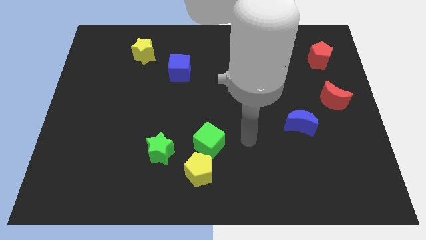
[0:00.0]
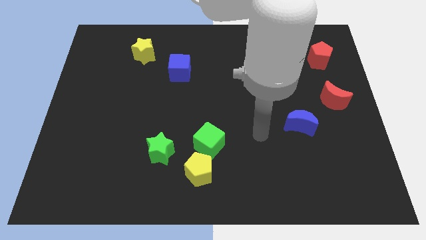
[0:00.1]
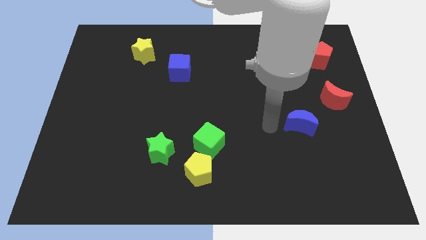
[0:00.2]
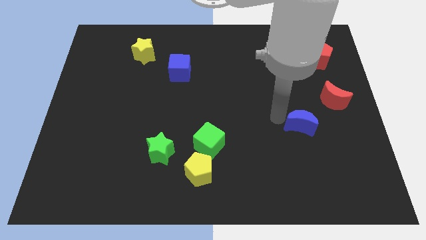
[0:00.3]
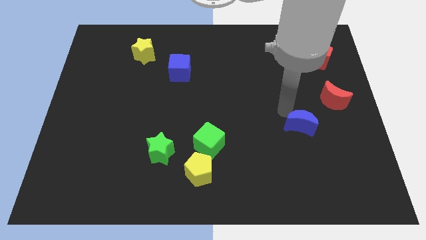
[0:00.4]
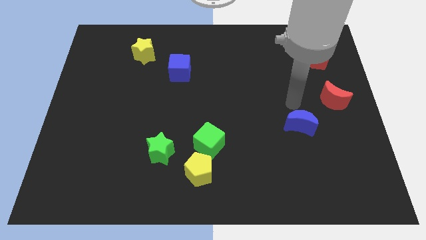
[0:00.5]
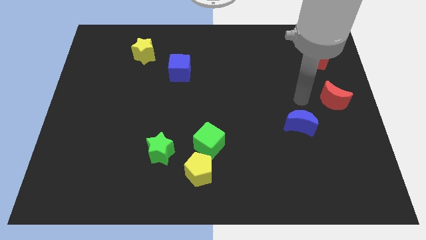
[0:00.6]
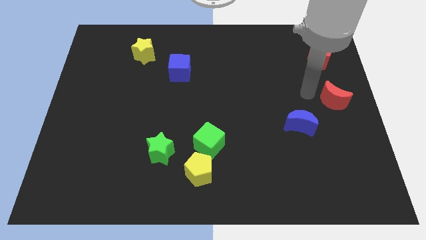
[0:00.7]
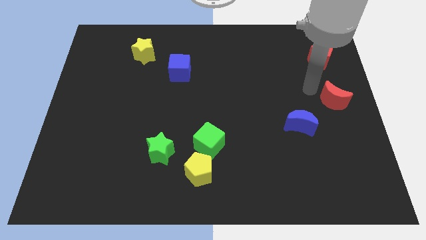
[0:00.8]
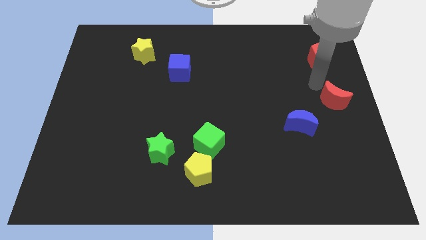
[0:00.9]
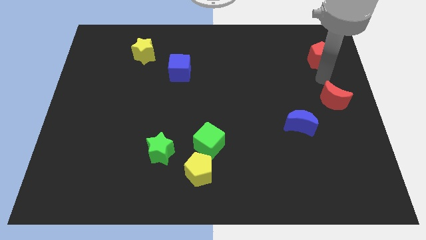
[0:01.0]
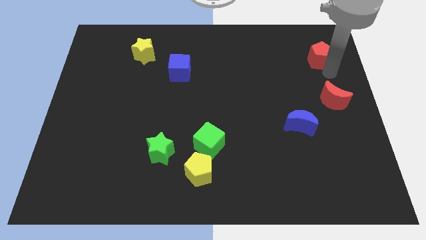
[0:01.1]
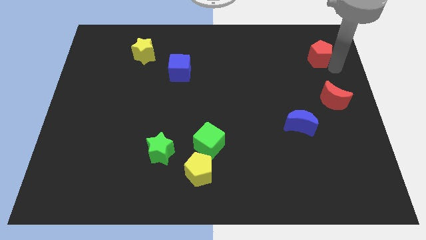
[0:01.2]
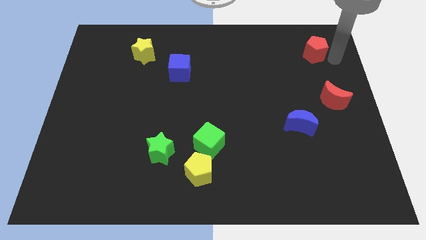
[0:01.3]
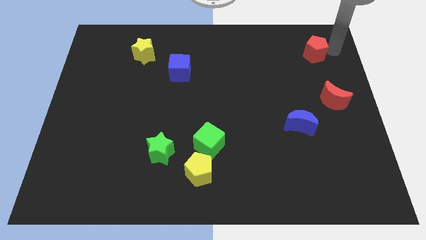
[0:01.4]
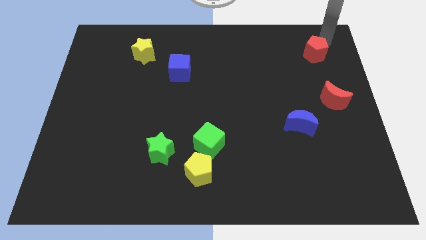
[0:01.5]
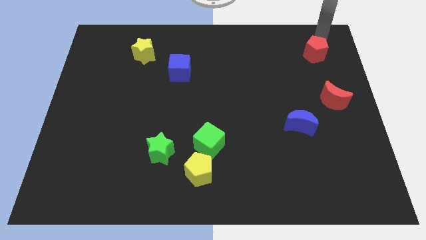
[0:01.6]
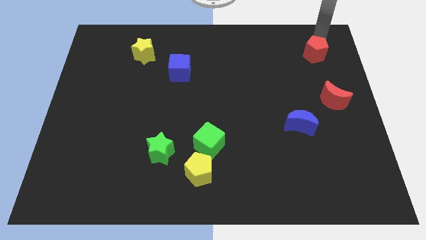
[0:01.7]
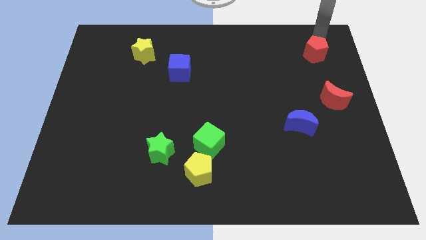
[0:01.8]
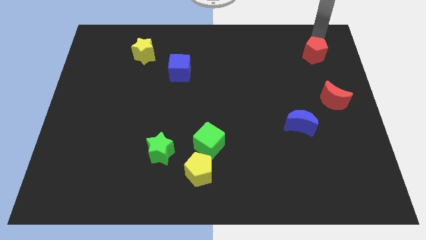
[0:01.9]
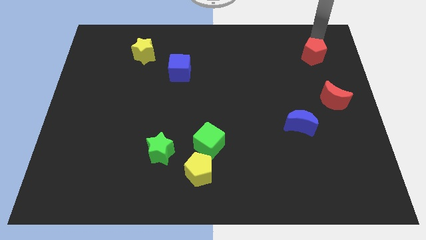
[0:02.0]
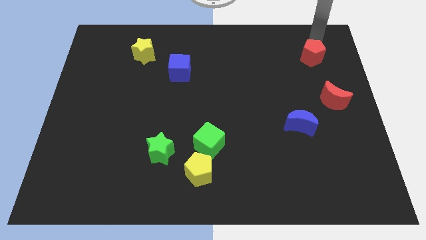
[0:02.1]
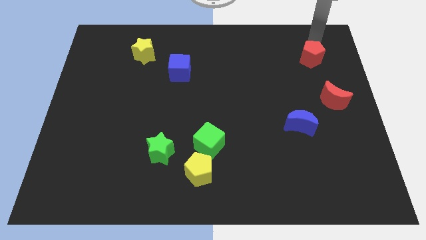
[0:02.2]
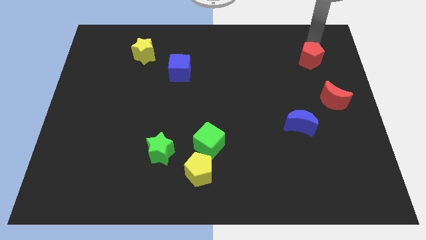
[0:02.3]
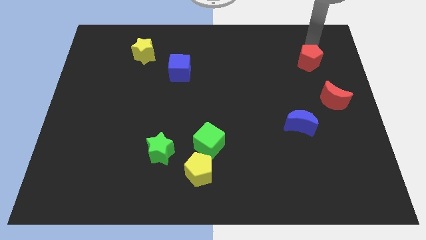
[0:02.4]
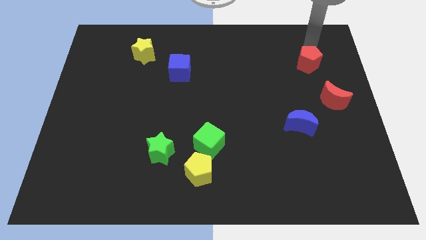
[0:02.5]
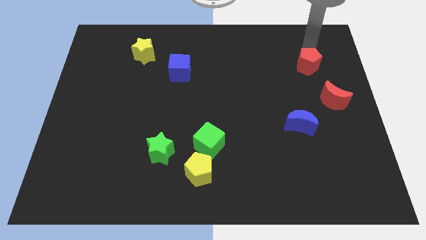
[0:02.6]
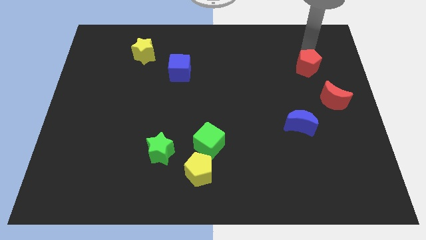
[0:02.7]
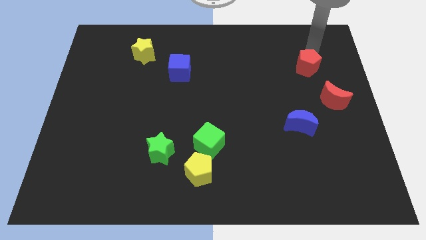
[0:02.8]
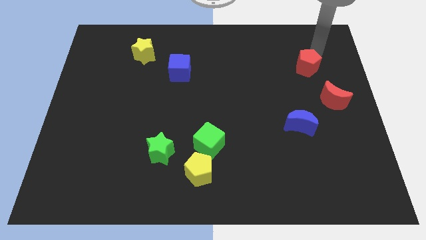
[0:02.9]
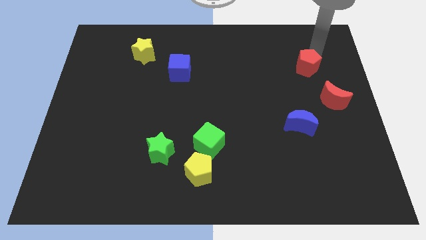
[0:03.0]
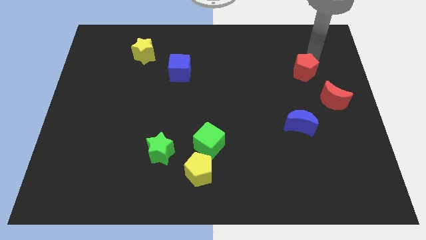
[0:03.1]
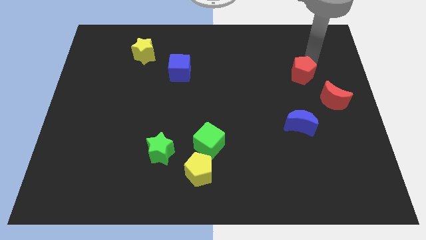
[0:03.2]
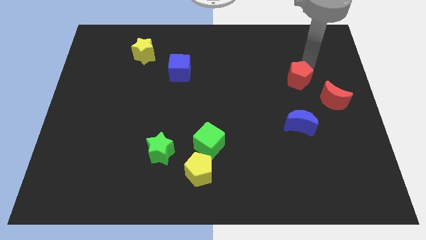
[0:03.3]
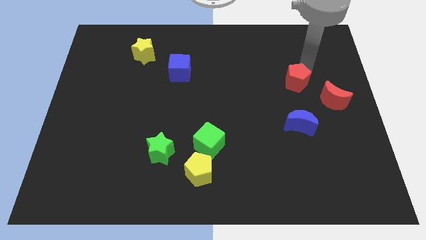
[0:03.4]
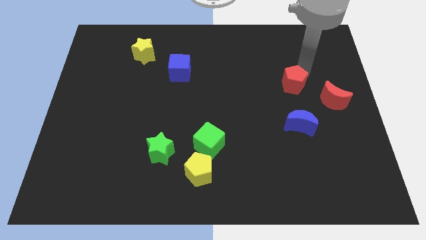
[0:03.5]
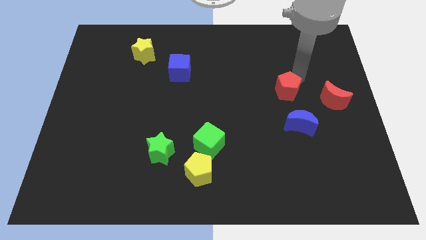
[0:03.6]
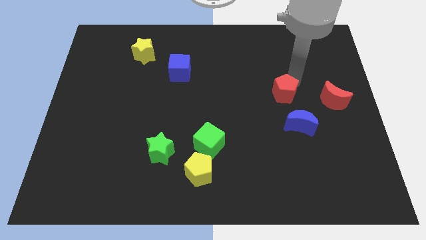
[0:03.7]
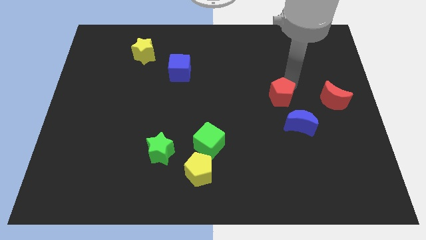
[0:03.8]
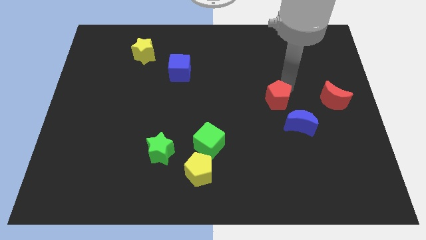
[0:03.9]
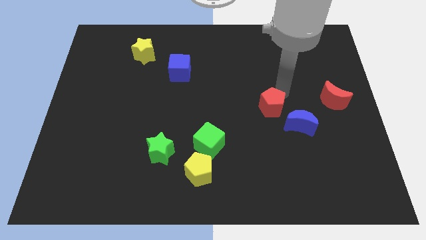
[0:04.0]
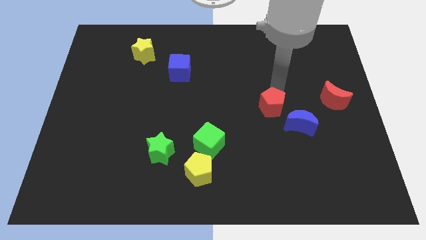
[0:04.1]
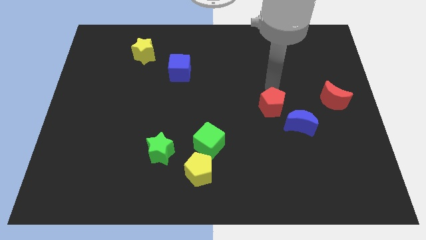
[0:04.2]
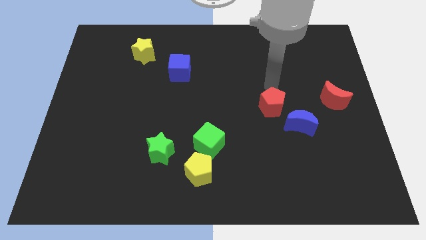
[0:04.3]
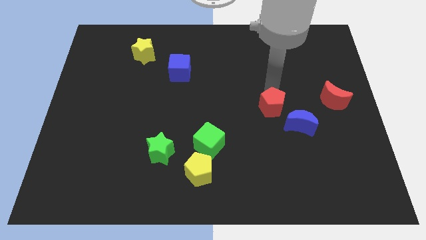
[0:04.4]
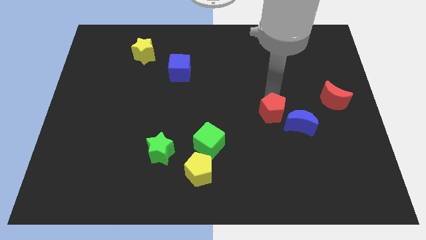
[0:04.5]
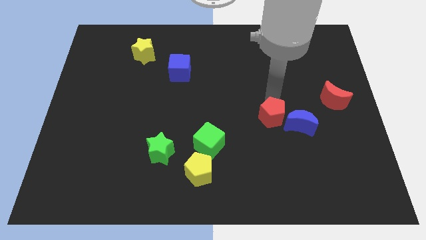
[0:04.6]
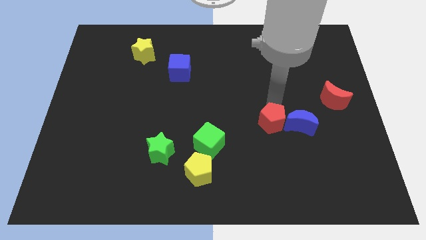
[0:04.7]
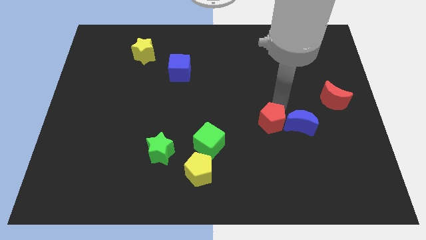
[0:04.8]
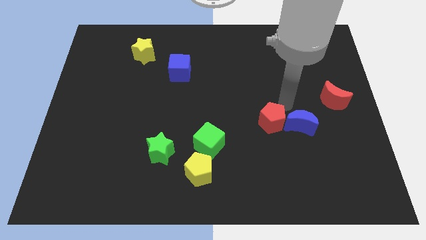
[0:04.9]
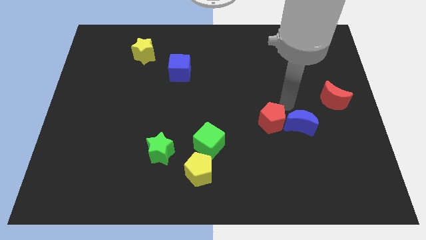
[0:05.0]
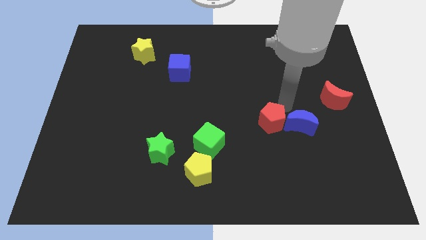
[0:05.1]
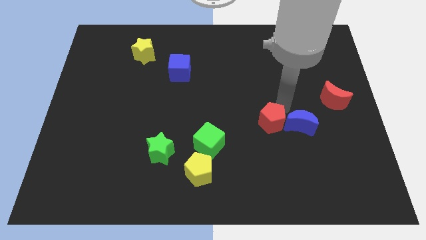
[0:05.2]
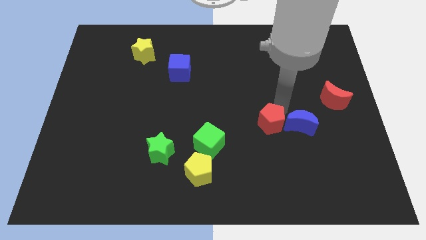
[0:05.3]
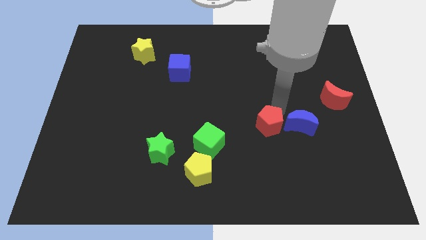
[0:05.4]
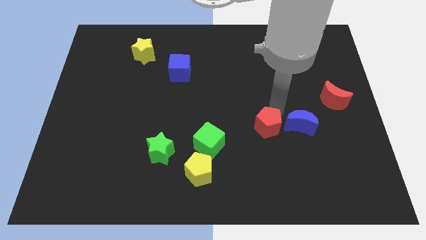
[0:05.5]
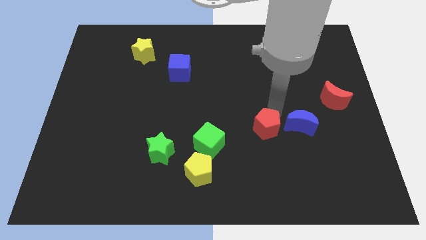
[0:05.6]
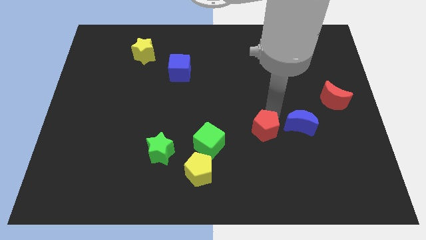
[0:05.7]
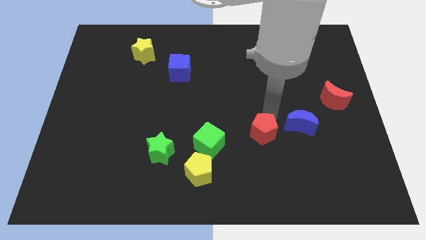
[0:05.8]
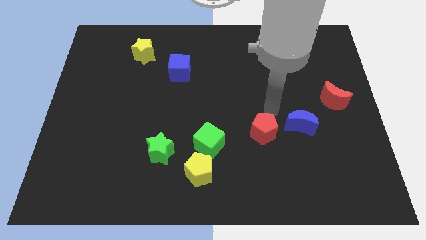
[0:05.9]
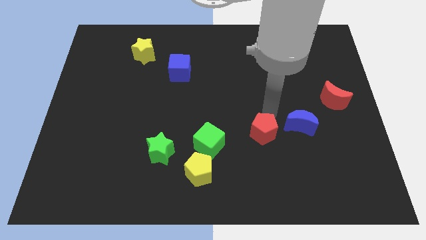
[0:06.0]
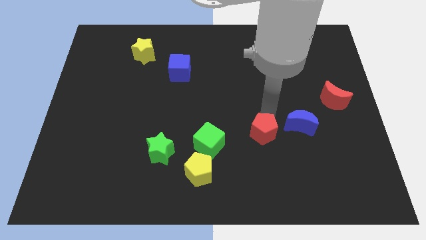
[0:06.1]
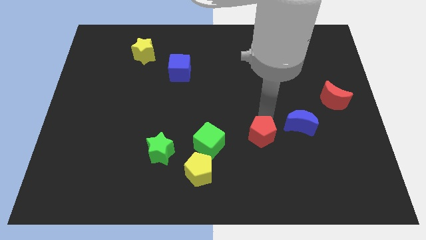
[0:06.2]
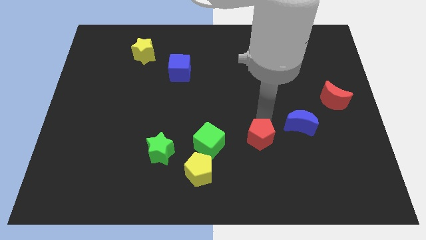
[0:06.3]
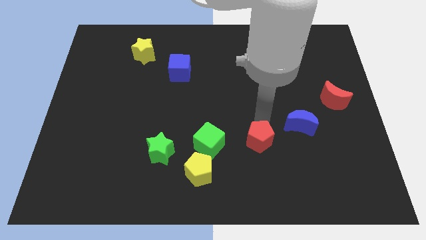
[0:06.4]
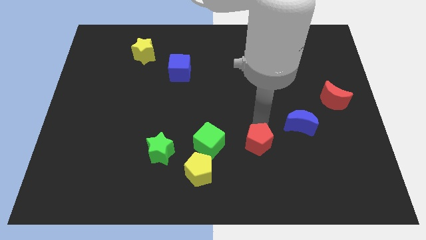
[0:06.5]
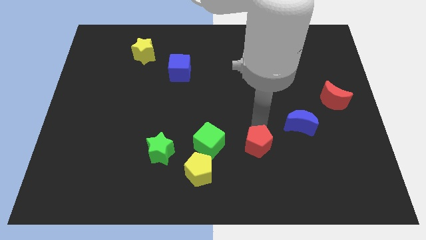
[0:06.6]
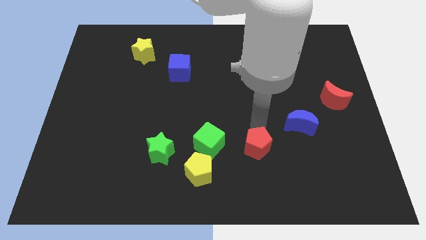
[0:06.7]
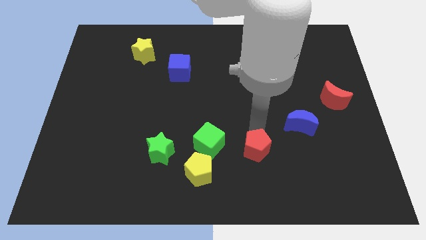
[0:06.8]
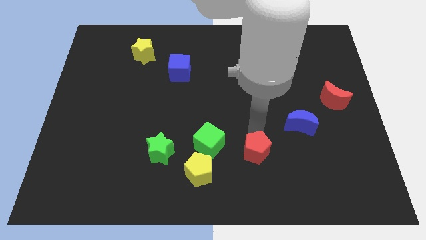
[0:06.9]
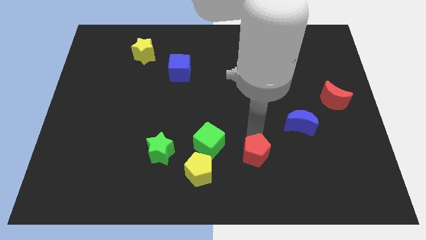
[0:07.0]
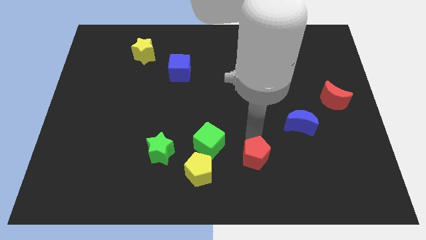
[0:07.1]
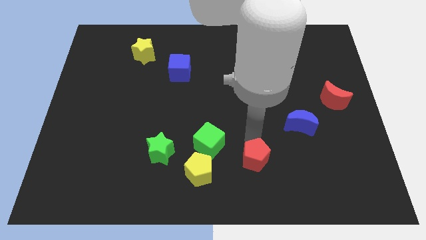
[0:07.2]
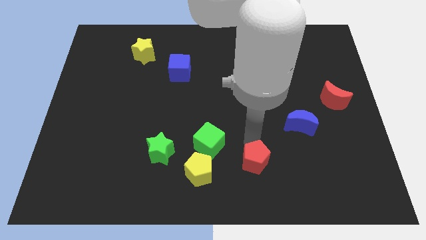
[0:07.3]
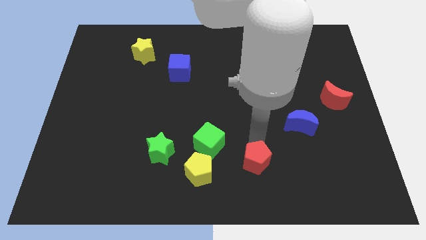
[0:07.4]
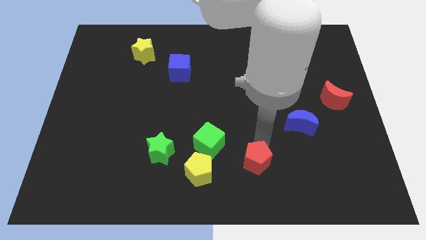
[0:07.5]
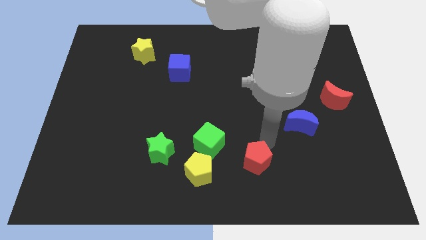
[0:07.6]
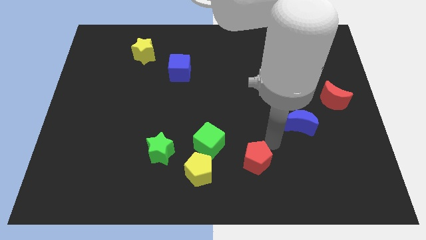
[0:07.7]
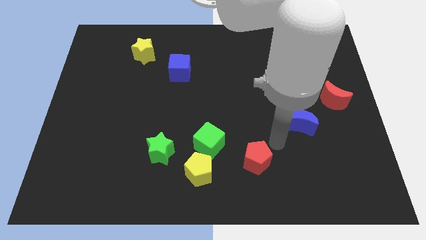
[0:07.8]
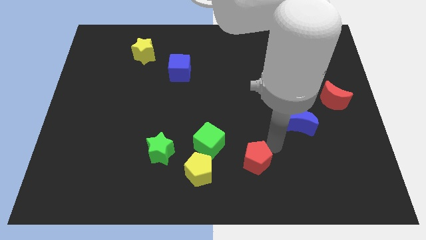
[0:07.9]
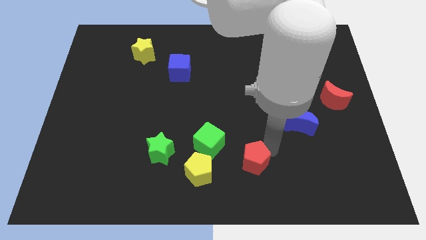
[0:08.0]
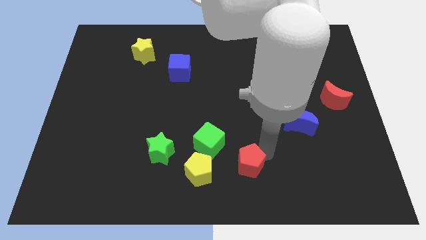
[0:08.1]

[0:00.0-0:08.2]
slide the red pentagon to the bottom
